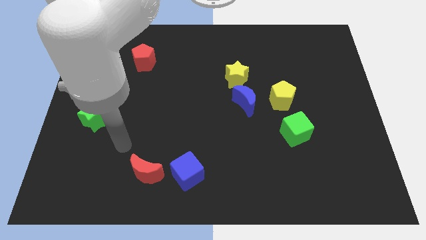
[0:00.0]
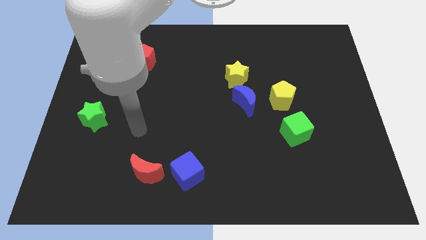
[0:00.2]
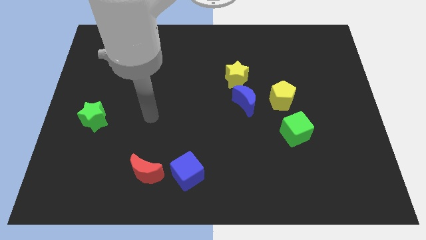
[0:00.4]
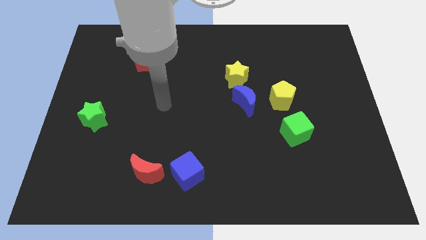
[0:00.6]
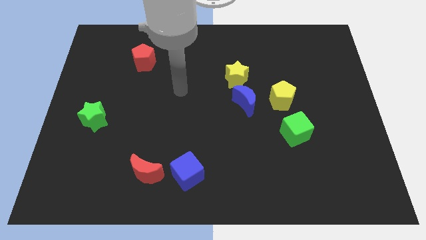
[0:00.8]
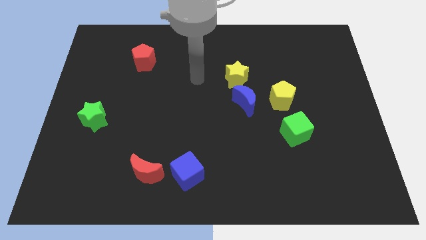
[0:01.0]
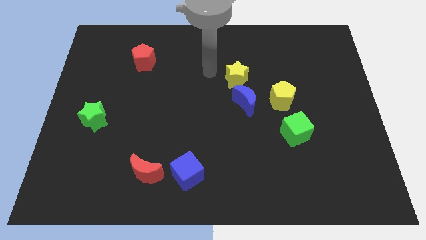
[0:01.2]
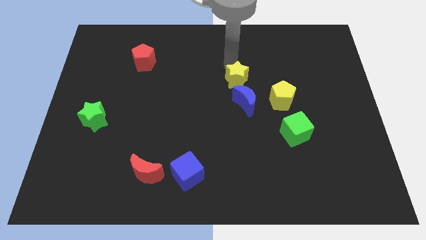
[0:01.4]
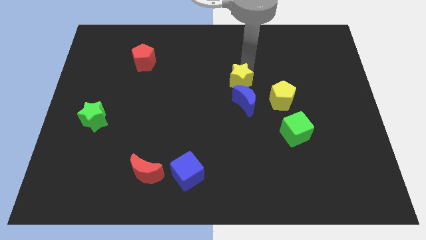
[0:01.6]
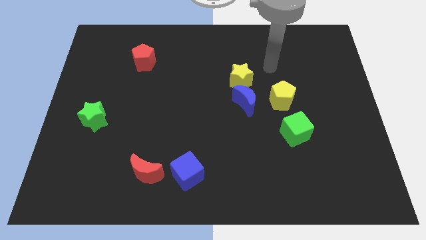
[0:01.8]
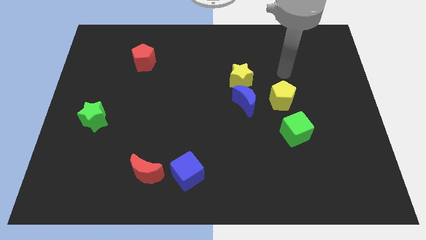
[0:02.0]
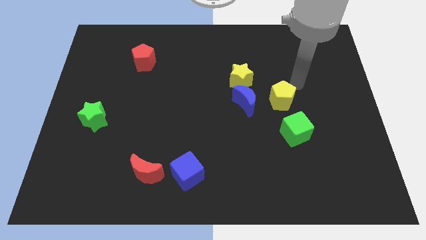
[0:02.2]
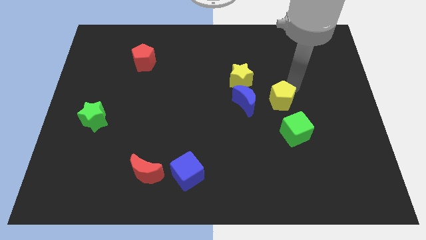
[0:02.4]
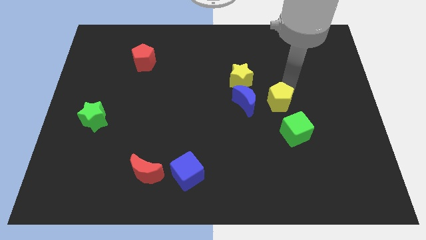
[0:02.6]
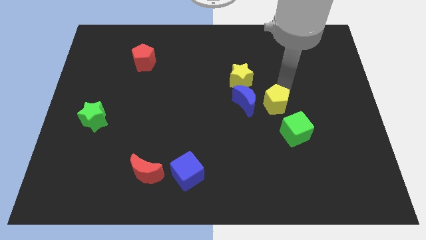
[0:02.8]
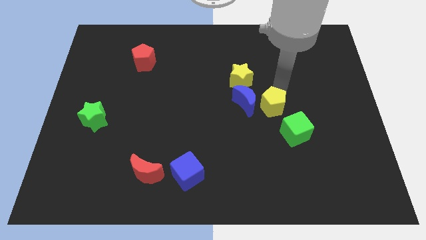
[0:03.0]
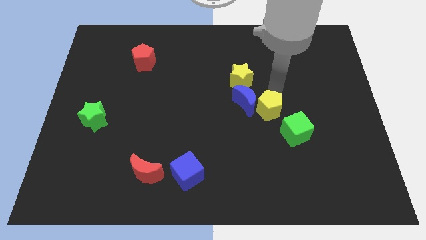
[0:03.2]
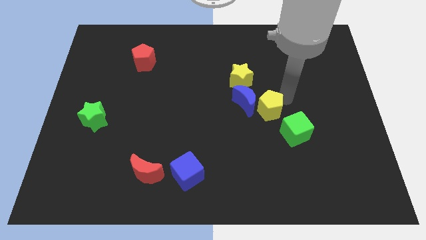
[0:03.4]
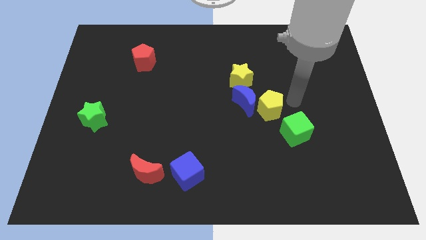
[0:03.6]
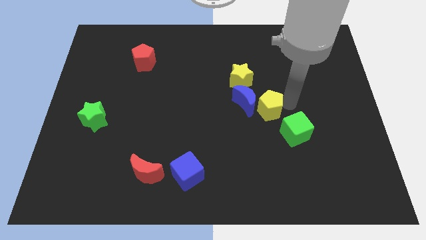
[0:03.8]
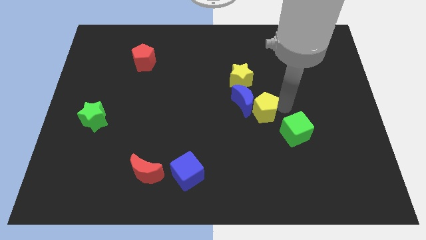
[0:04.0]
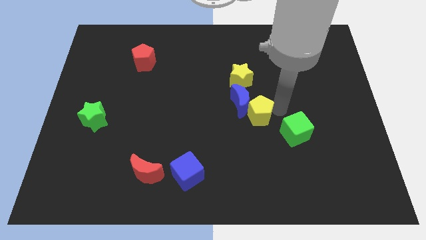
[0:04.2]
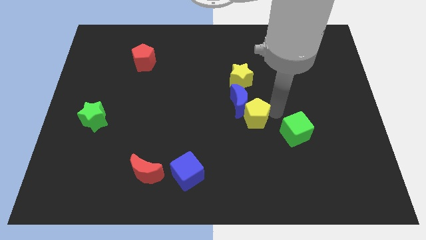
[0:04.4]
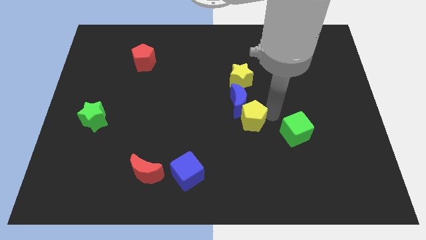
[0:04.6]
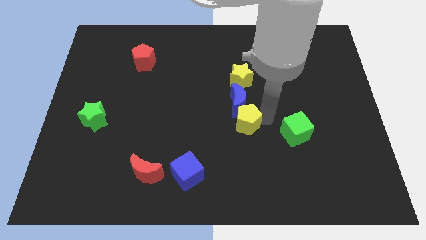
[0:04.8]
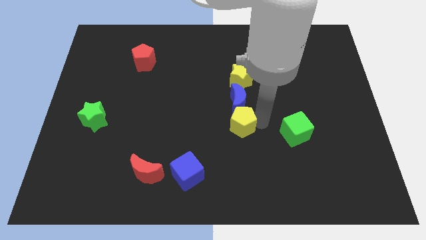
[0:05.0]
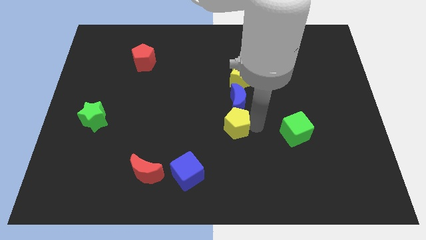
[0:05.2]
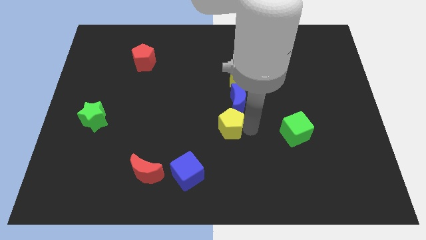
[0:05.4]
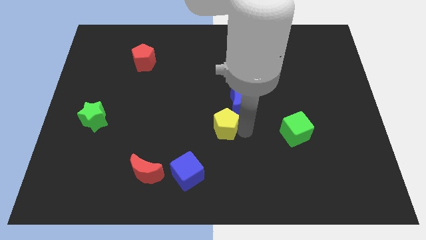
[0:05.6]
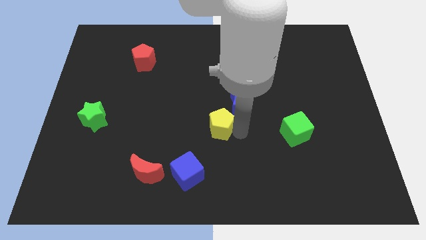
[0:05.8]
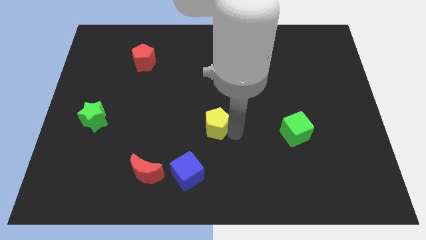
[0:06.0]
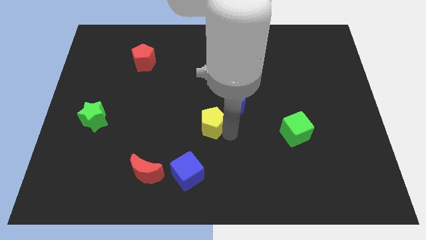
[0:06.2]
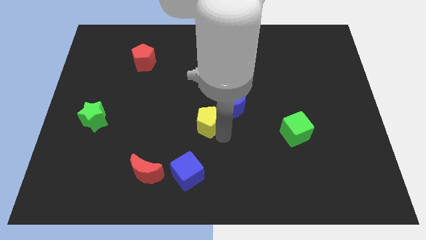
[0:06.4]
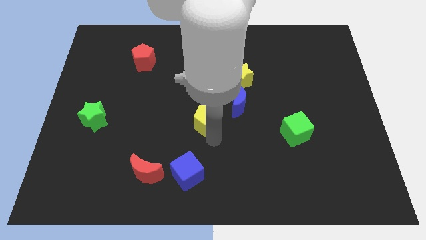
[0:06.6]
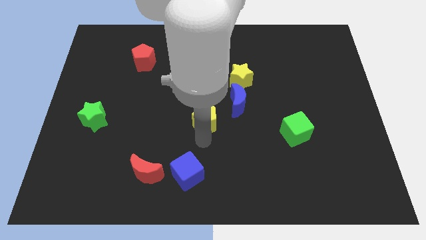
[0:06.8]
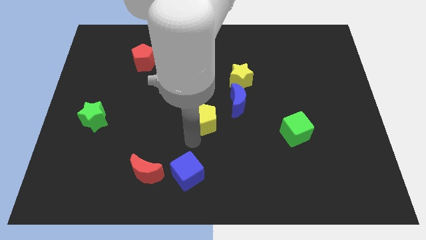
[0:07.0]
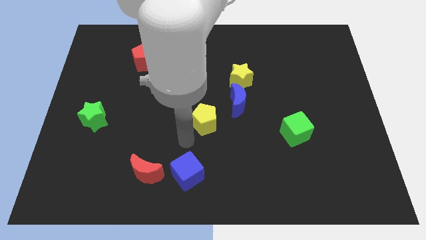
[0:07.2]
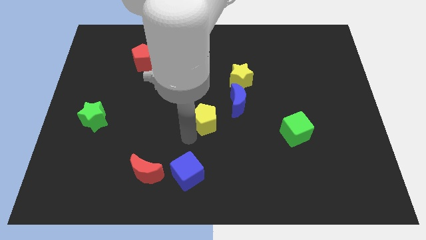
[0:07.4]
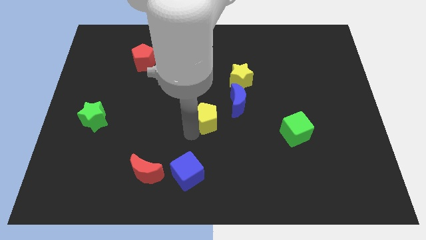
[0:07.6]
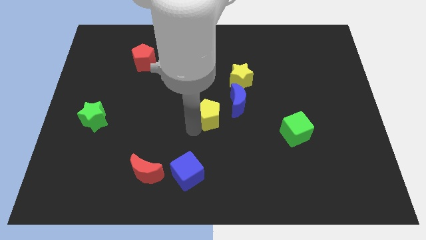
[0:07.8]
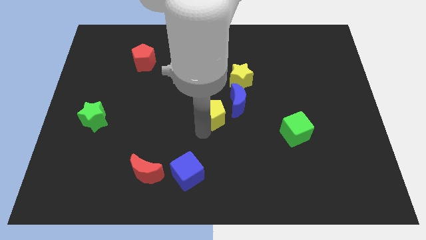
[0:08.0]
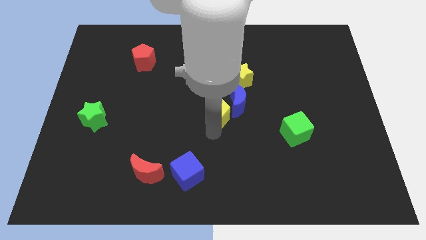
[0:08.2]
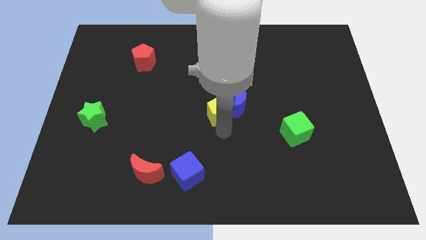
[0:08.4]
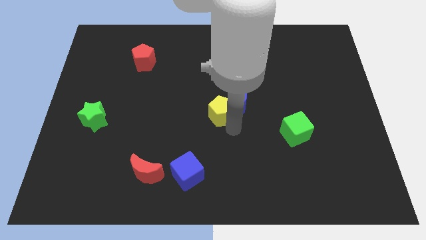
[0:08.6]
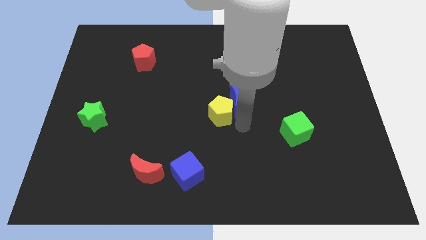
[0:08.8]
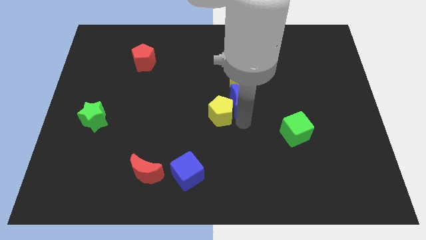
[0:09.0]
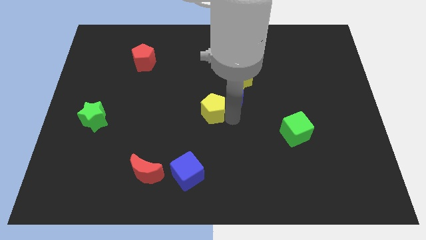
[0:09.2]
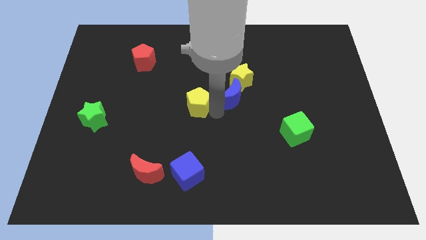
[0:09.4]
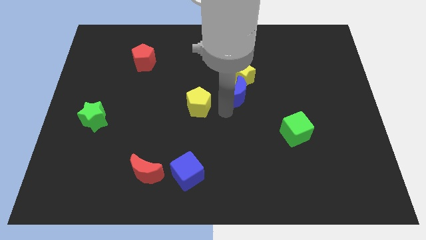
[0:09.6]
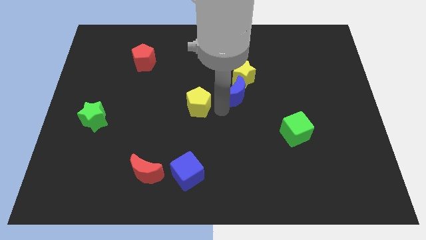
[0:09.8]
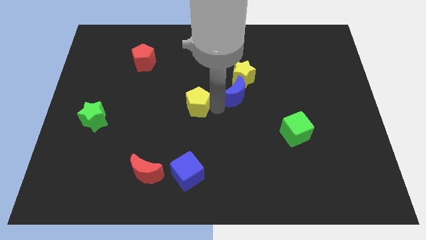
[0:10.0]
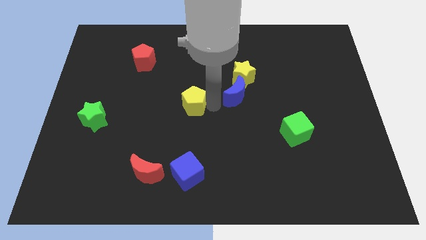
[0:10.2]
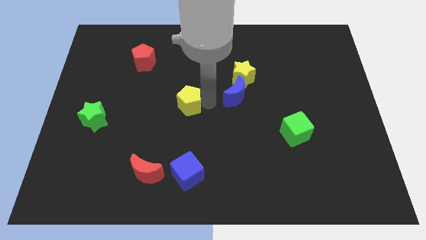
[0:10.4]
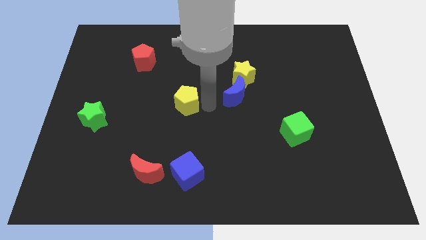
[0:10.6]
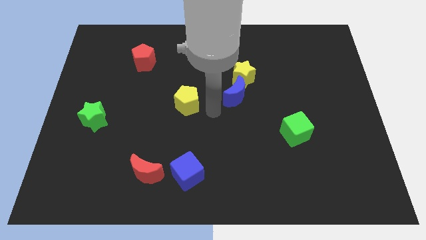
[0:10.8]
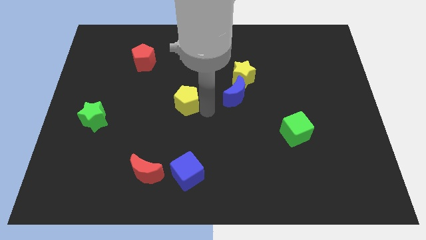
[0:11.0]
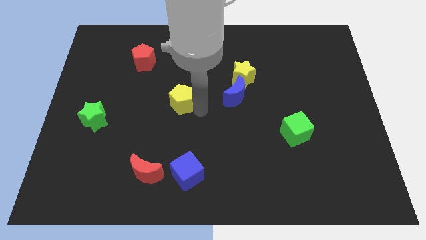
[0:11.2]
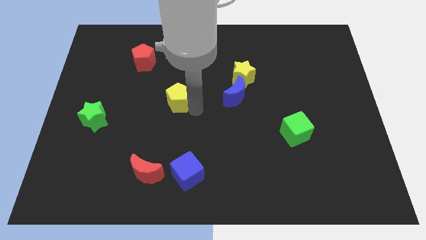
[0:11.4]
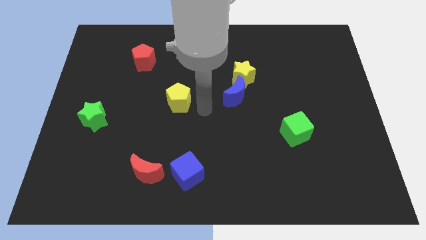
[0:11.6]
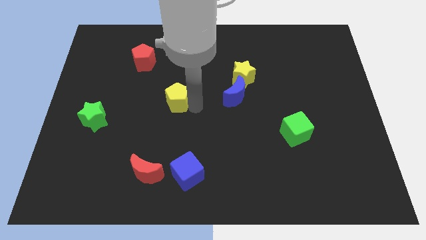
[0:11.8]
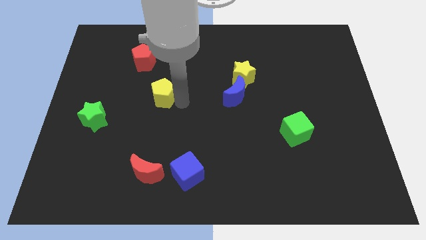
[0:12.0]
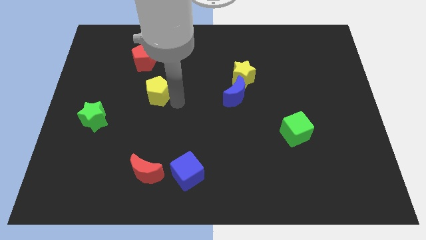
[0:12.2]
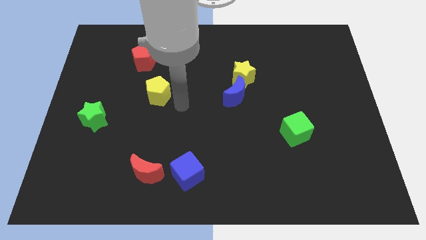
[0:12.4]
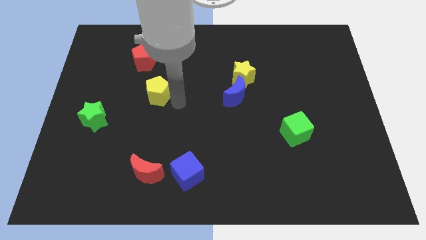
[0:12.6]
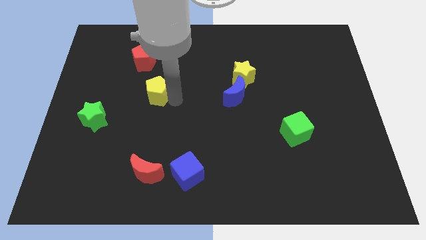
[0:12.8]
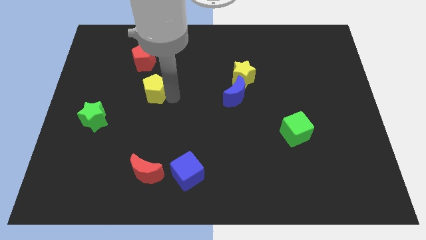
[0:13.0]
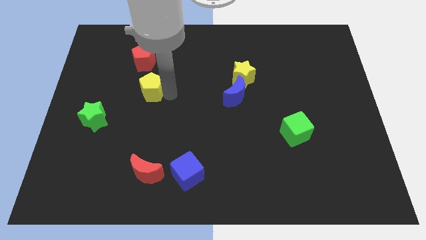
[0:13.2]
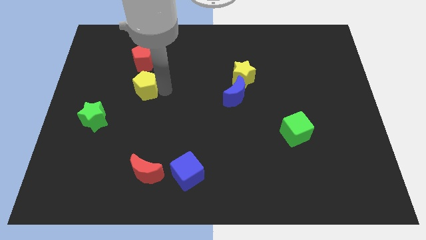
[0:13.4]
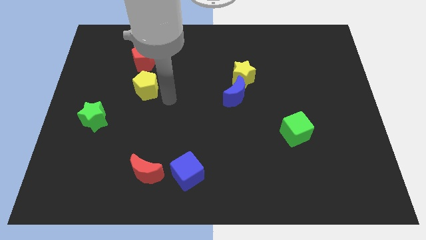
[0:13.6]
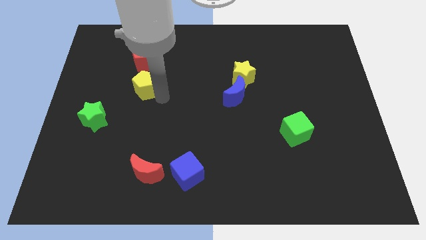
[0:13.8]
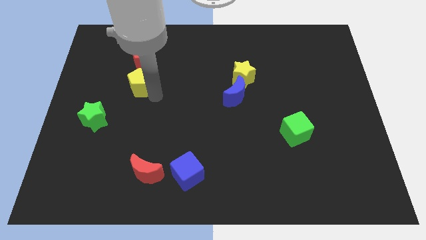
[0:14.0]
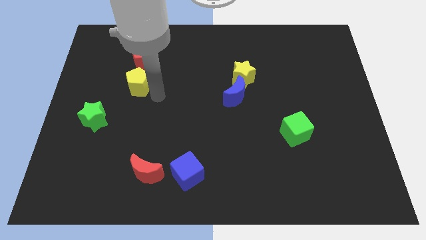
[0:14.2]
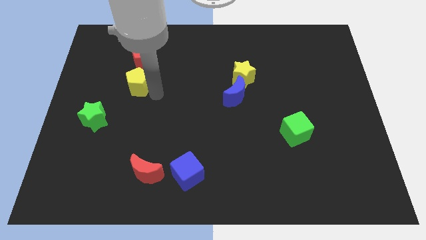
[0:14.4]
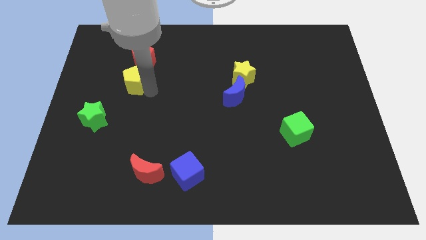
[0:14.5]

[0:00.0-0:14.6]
slide the yellow pentagon to the bottom left of the red pentagon

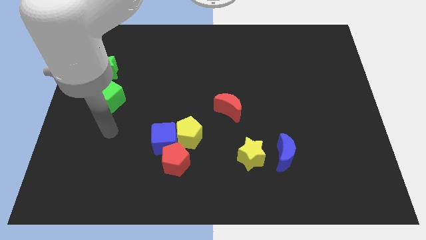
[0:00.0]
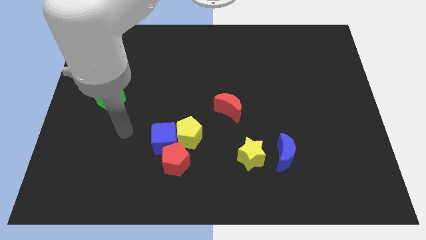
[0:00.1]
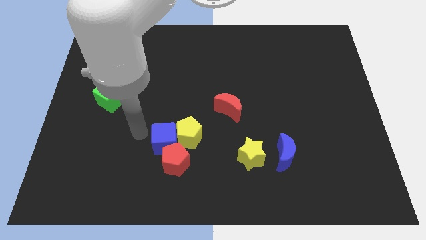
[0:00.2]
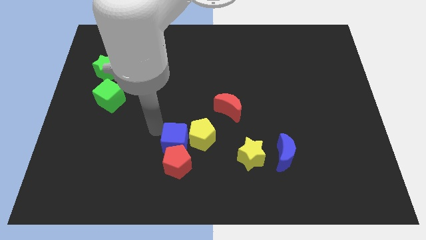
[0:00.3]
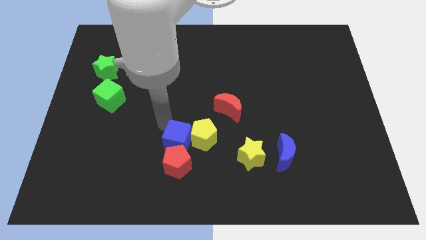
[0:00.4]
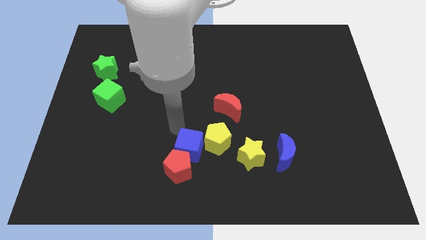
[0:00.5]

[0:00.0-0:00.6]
slide the yellow pentagon to the bottom of the red moon
